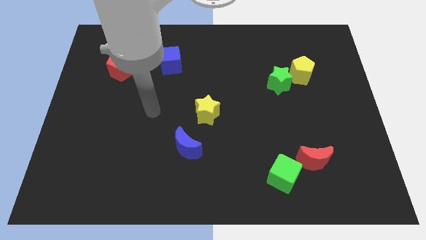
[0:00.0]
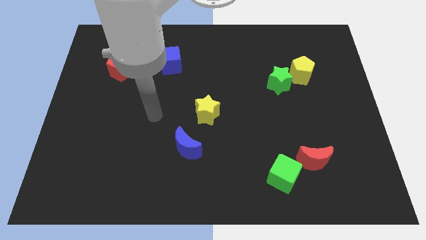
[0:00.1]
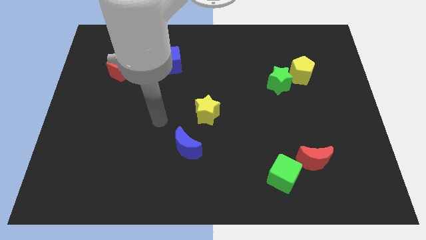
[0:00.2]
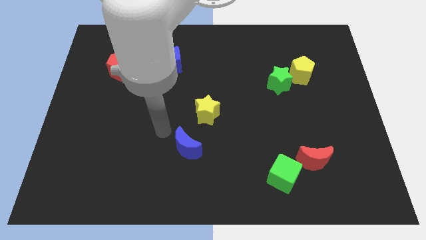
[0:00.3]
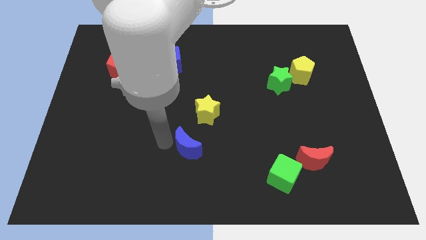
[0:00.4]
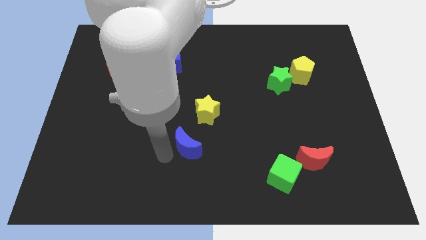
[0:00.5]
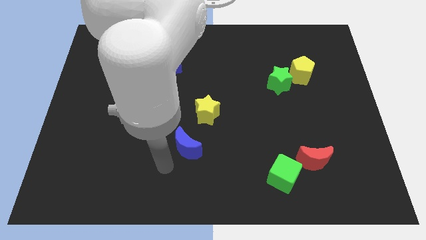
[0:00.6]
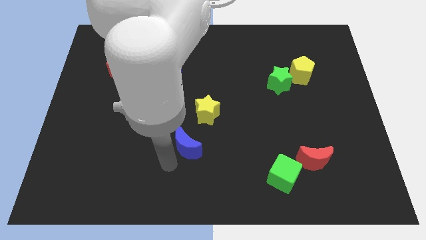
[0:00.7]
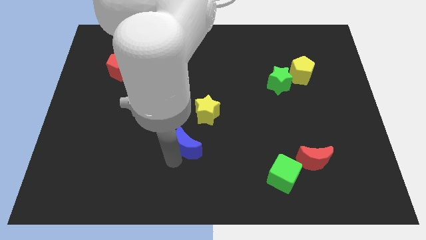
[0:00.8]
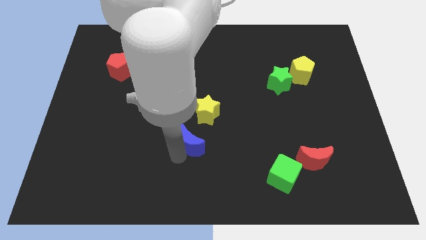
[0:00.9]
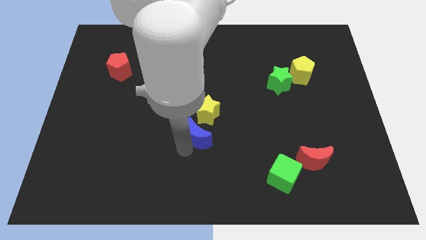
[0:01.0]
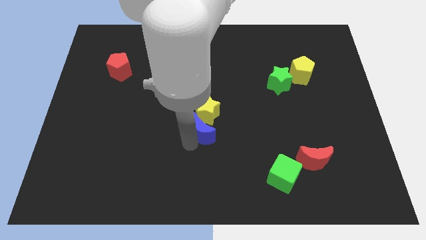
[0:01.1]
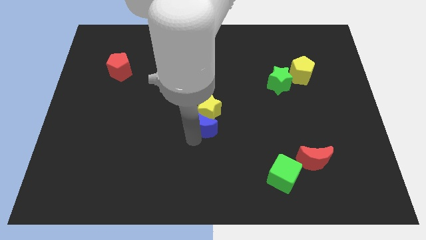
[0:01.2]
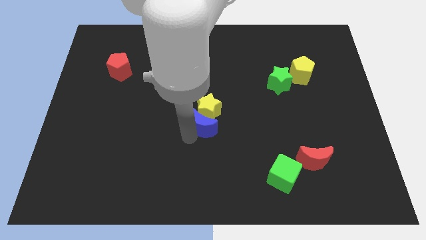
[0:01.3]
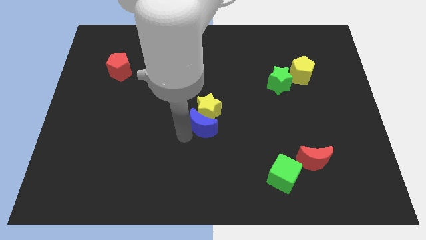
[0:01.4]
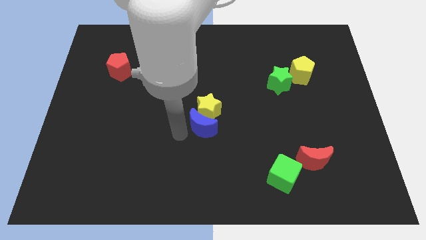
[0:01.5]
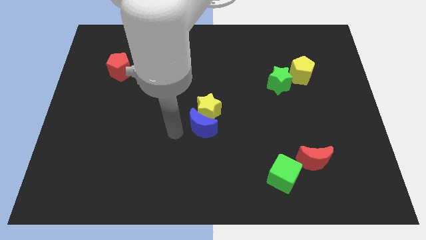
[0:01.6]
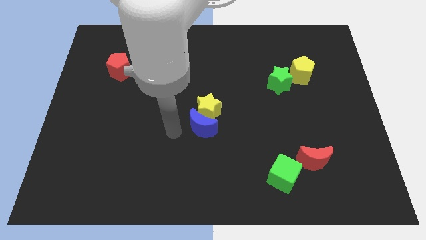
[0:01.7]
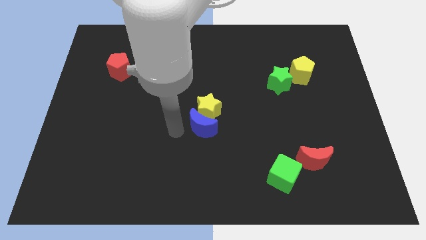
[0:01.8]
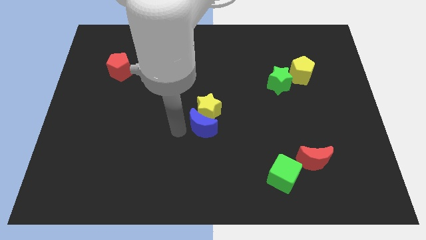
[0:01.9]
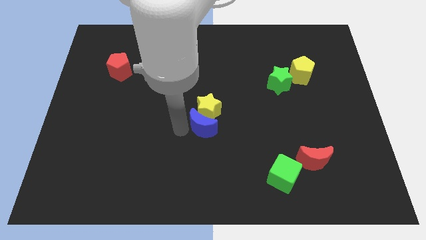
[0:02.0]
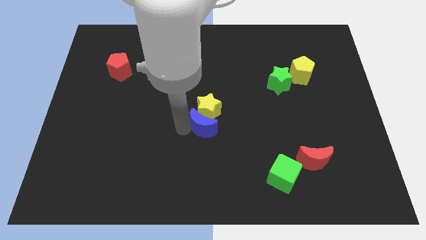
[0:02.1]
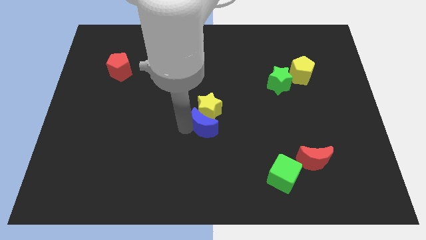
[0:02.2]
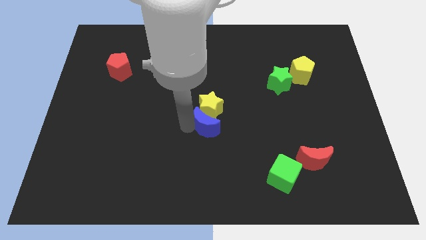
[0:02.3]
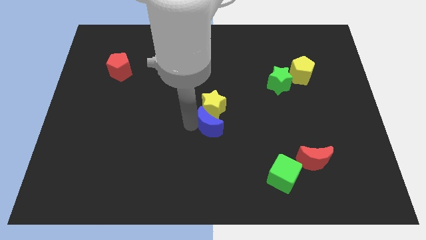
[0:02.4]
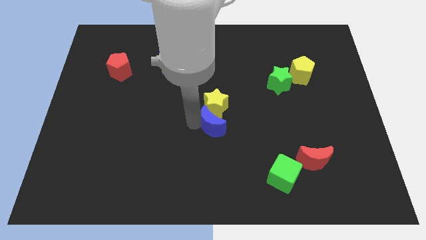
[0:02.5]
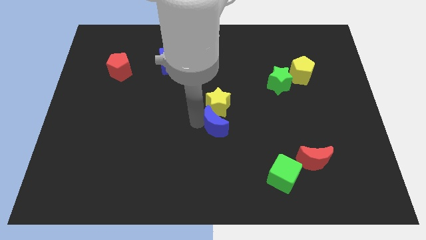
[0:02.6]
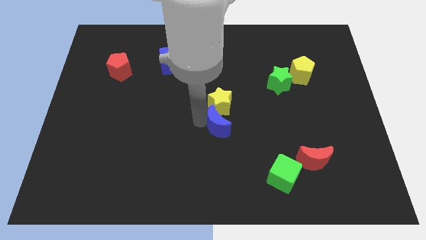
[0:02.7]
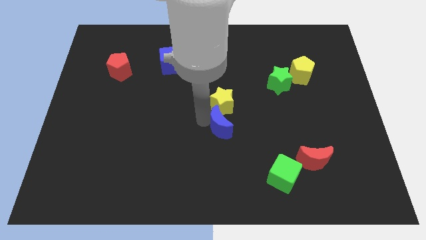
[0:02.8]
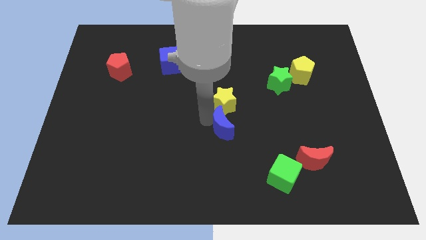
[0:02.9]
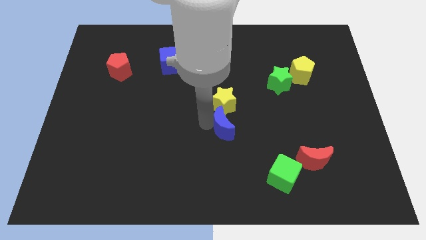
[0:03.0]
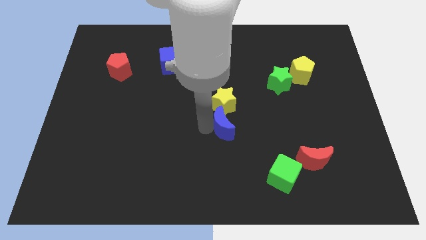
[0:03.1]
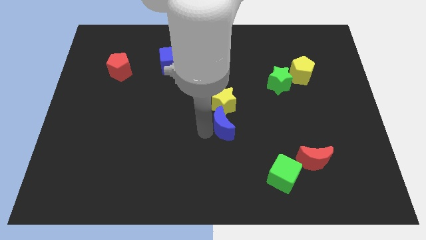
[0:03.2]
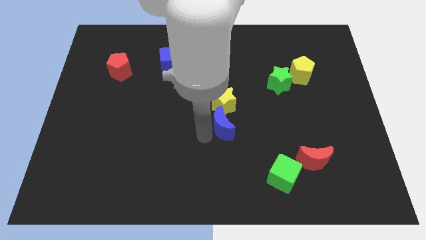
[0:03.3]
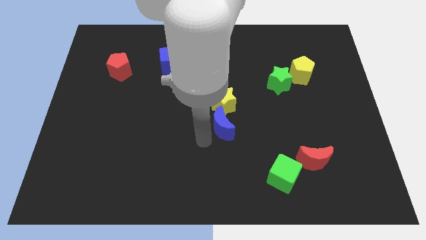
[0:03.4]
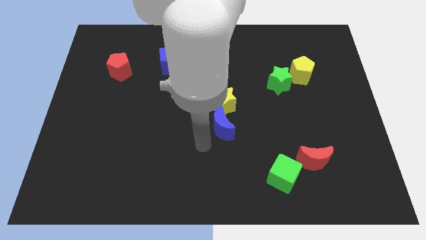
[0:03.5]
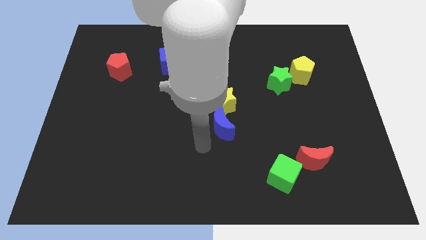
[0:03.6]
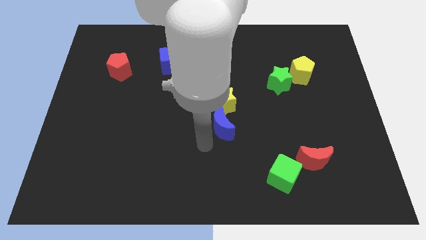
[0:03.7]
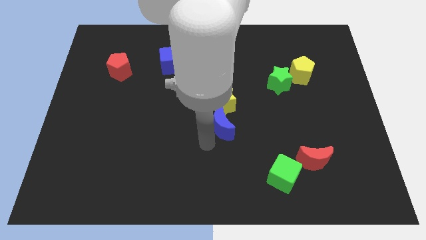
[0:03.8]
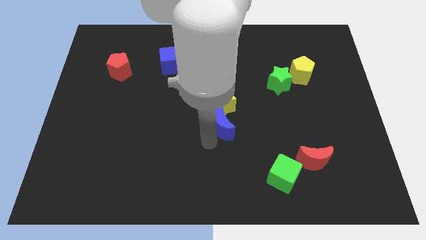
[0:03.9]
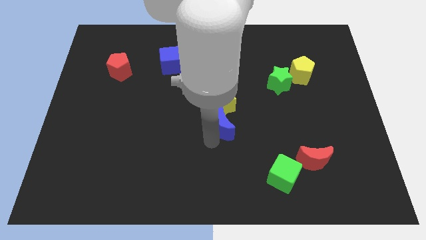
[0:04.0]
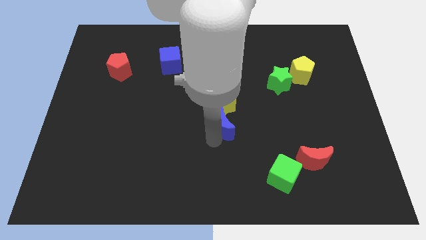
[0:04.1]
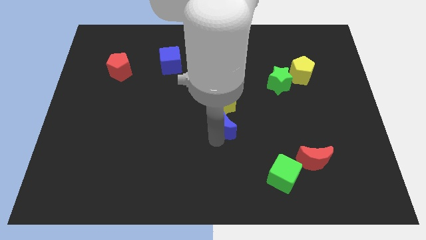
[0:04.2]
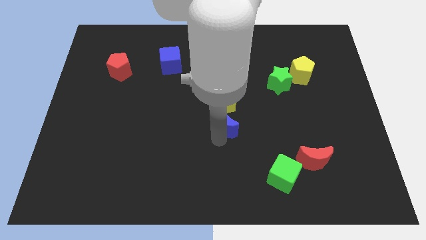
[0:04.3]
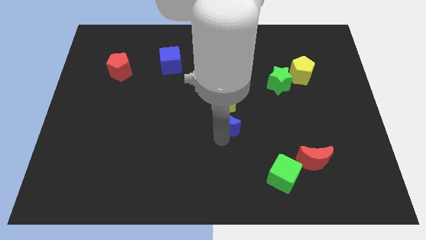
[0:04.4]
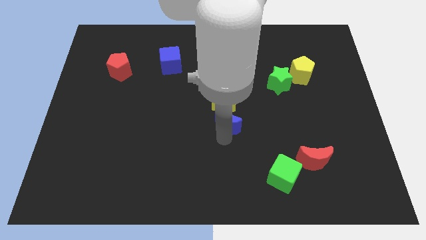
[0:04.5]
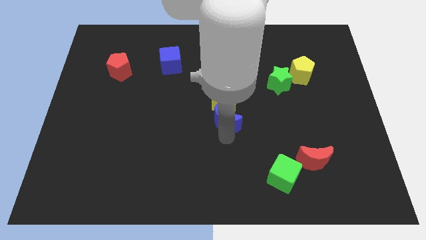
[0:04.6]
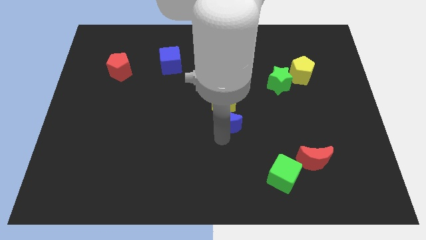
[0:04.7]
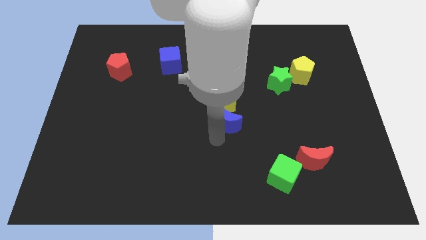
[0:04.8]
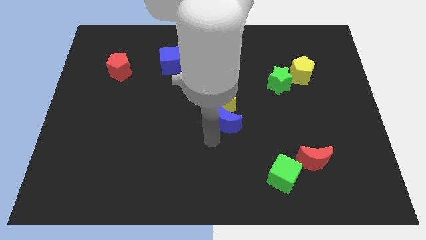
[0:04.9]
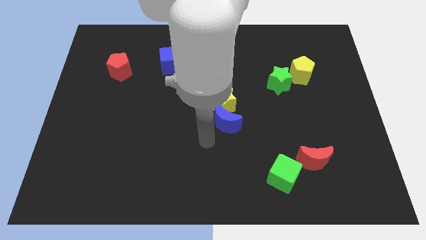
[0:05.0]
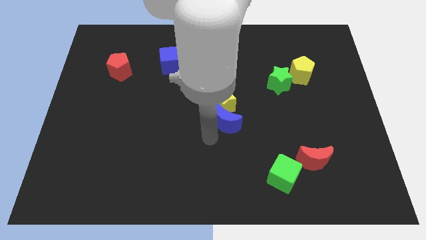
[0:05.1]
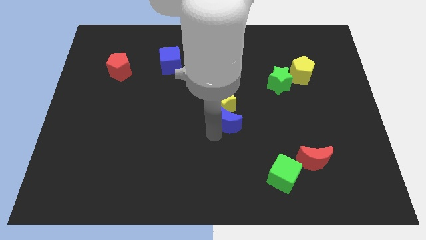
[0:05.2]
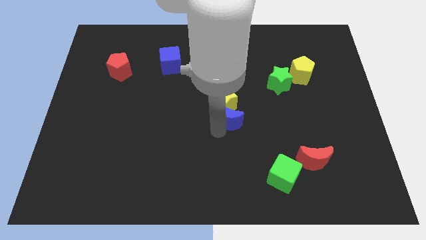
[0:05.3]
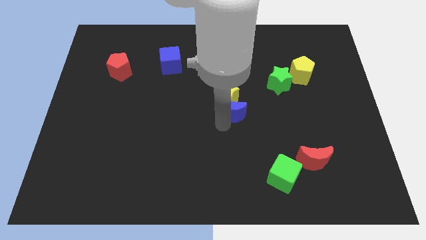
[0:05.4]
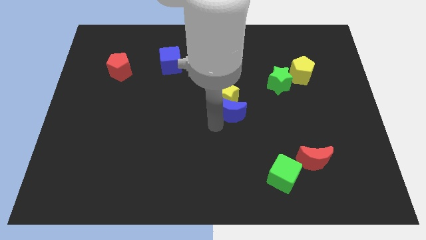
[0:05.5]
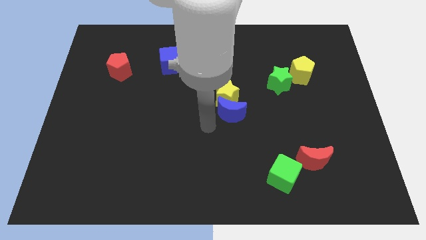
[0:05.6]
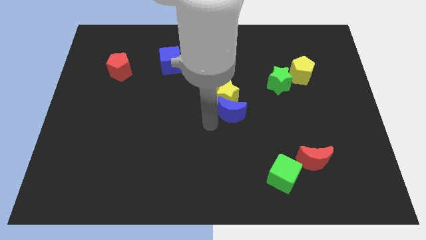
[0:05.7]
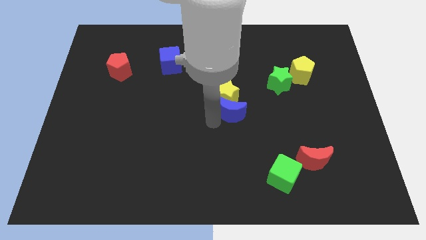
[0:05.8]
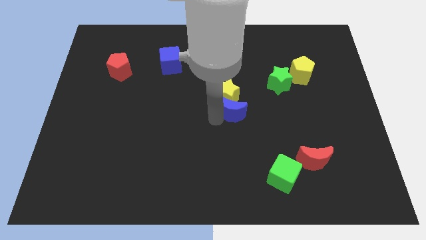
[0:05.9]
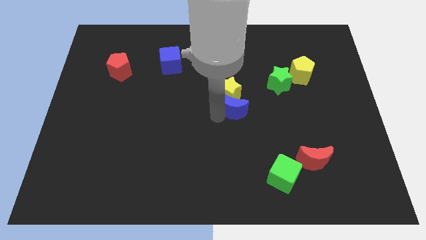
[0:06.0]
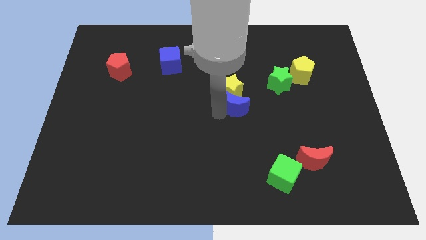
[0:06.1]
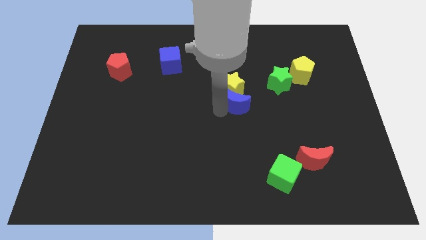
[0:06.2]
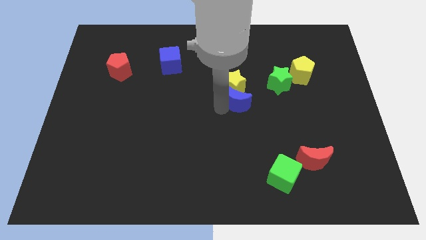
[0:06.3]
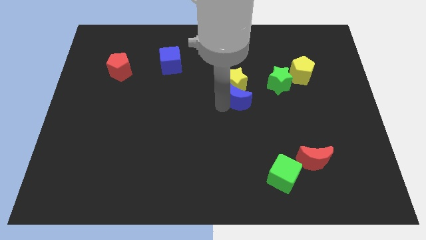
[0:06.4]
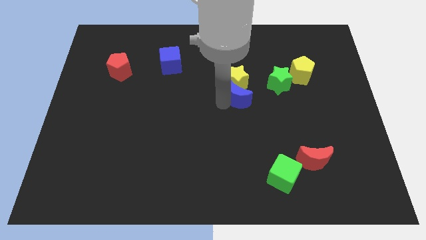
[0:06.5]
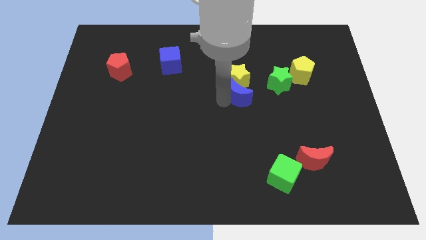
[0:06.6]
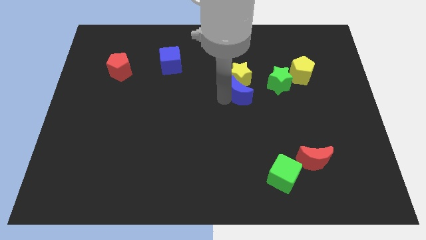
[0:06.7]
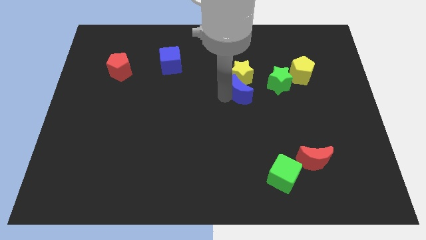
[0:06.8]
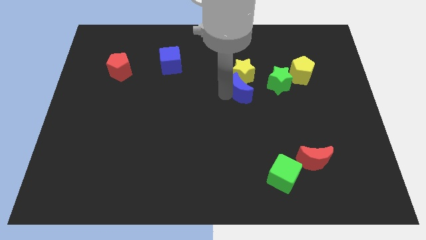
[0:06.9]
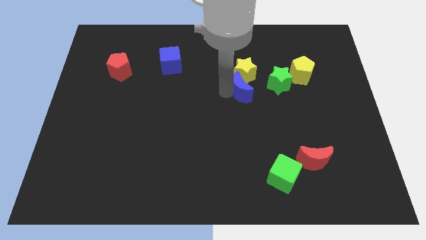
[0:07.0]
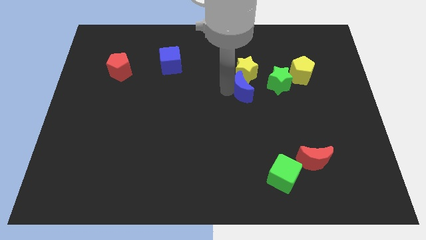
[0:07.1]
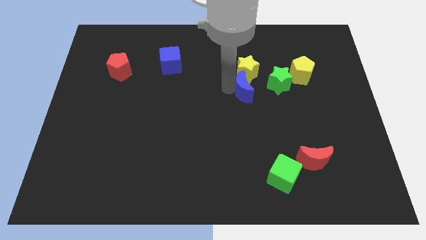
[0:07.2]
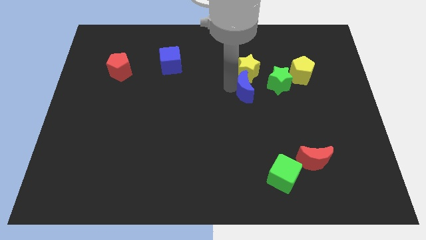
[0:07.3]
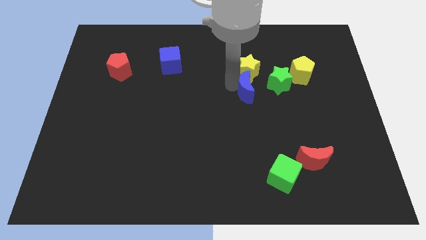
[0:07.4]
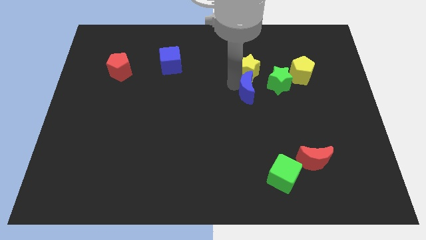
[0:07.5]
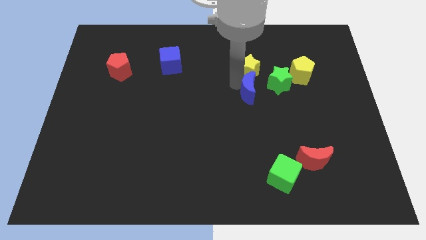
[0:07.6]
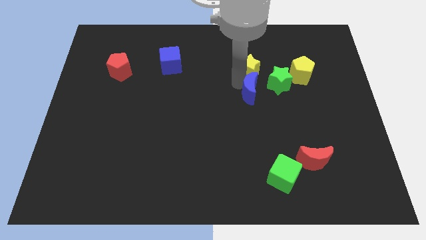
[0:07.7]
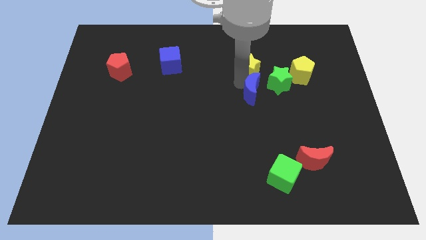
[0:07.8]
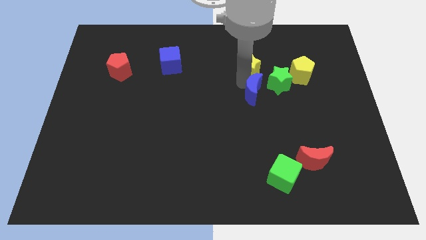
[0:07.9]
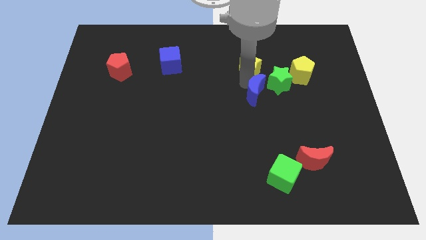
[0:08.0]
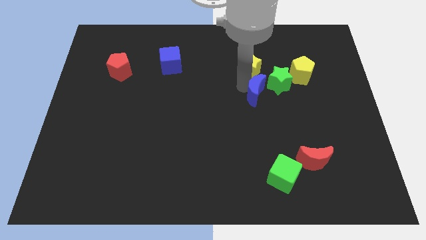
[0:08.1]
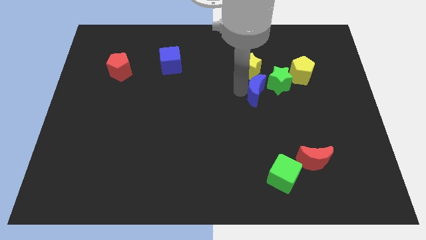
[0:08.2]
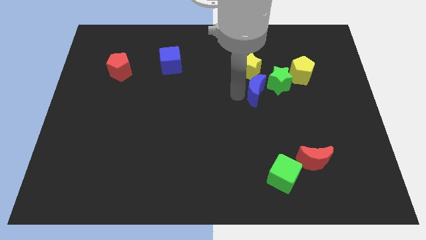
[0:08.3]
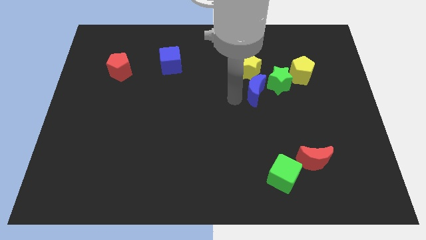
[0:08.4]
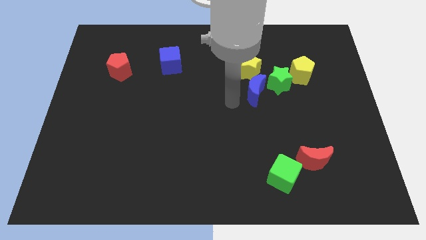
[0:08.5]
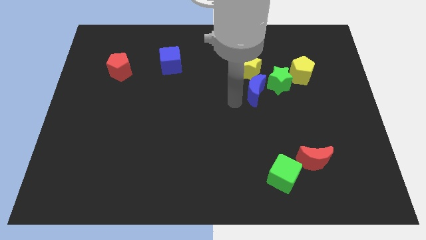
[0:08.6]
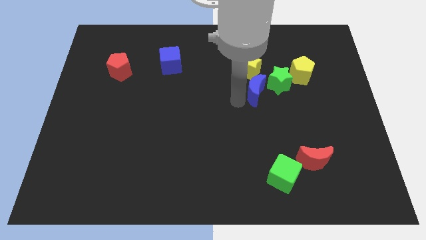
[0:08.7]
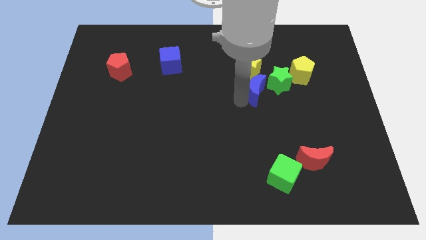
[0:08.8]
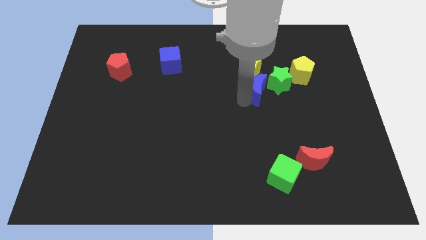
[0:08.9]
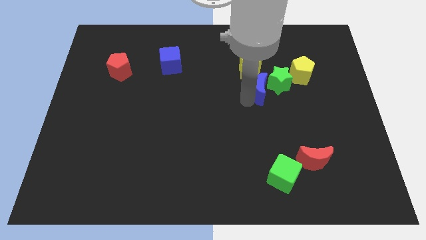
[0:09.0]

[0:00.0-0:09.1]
put the blue moon next to the green star
